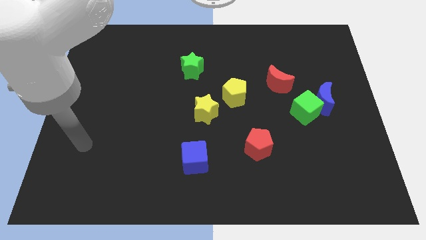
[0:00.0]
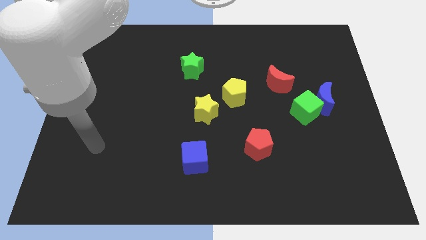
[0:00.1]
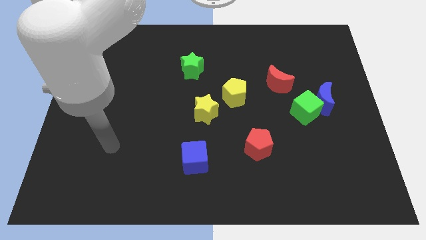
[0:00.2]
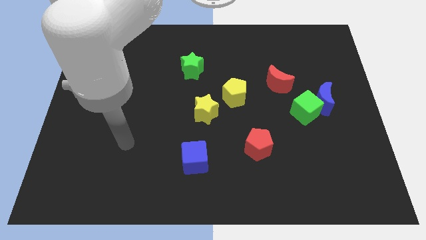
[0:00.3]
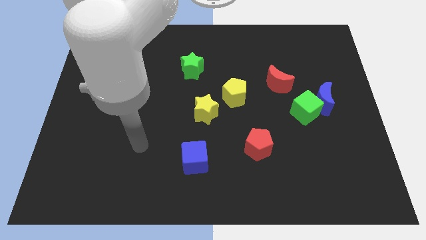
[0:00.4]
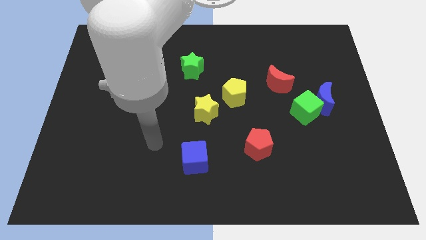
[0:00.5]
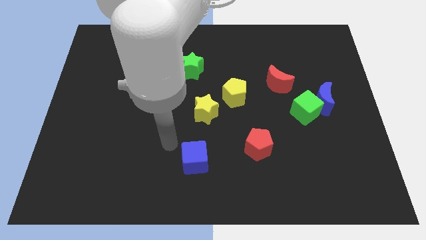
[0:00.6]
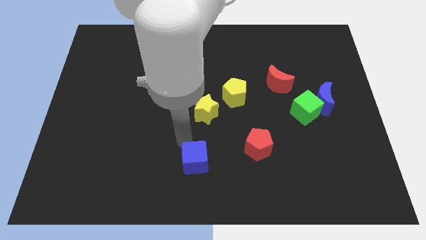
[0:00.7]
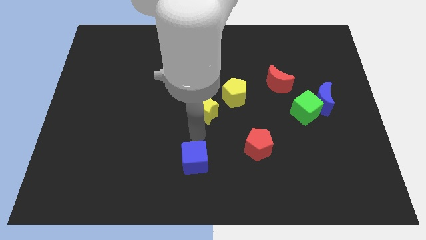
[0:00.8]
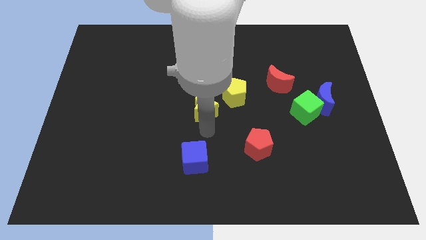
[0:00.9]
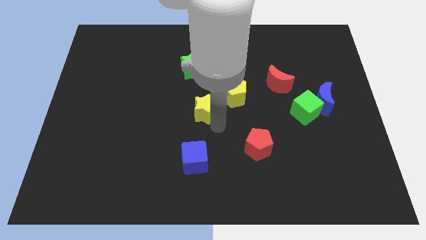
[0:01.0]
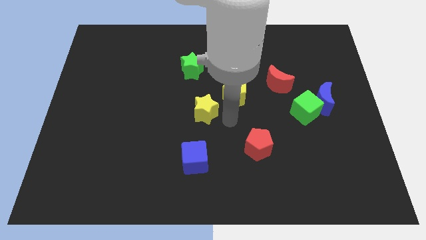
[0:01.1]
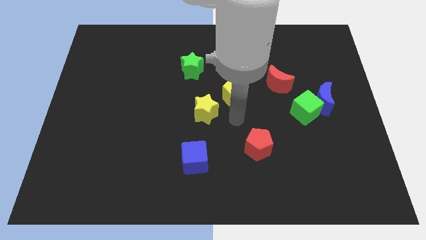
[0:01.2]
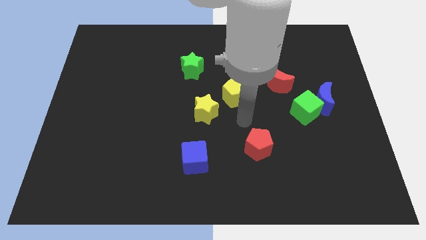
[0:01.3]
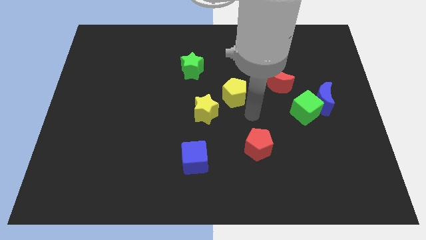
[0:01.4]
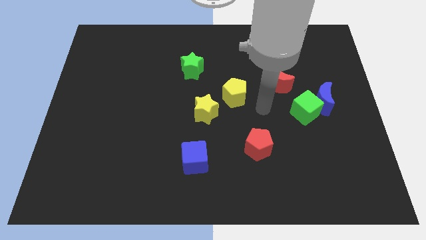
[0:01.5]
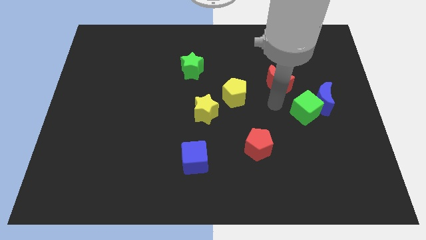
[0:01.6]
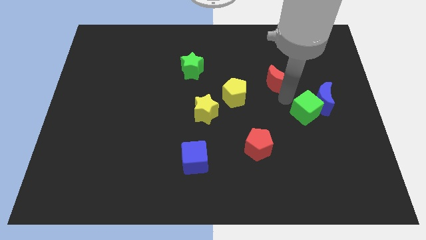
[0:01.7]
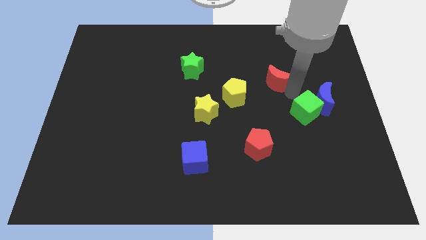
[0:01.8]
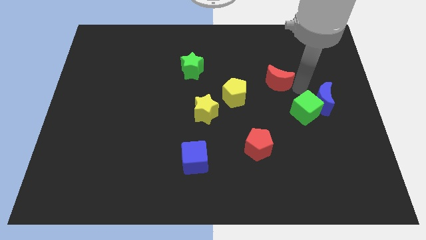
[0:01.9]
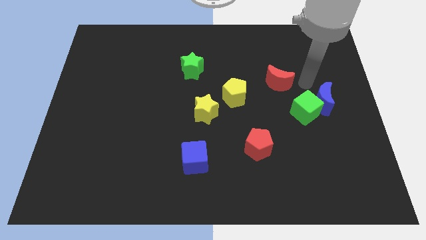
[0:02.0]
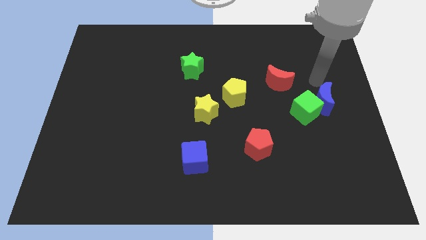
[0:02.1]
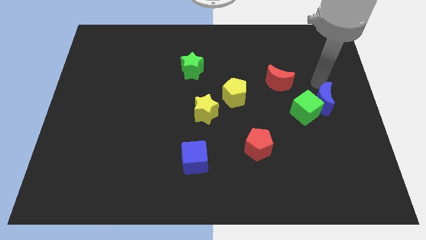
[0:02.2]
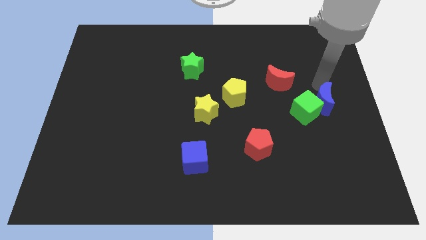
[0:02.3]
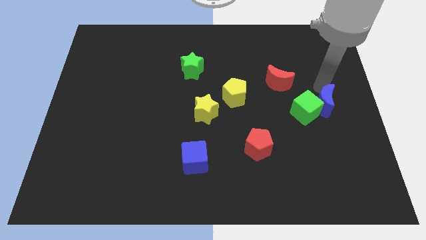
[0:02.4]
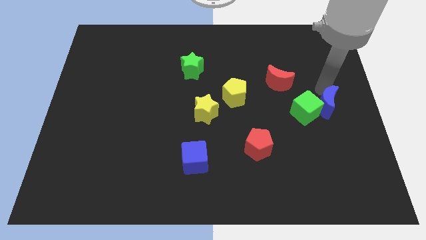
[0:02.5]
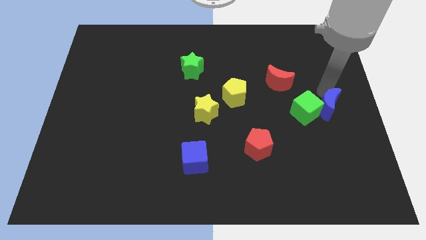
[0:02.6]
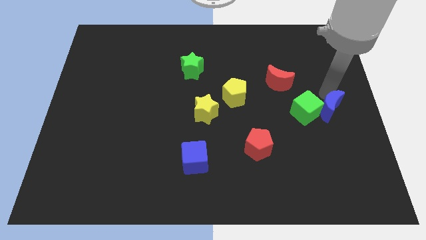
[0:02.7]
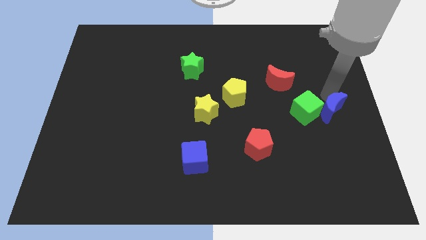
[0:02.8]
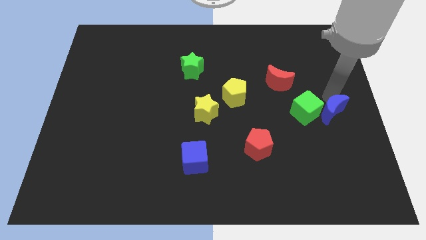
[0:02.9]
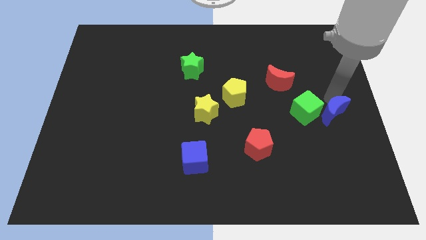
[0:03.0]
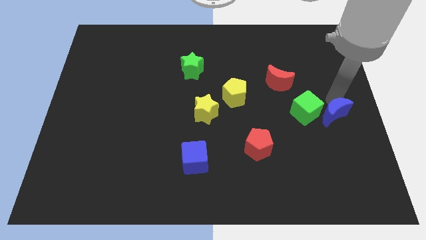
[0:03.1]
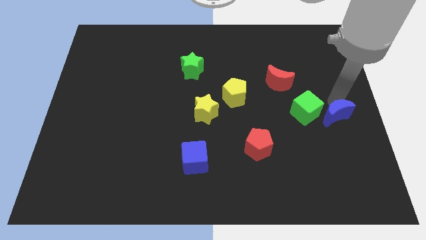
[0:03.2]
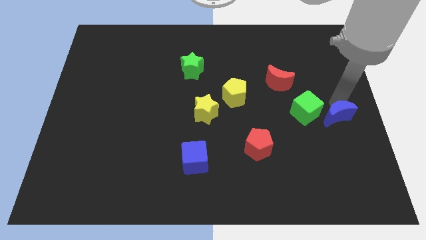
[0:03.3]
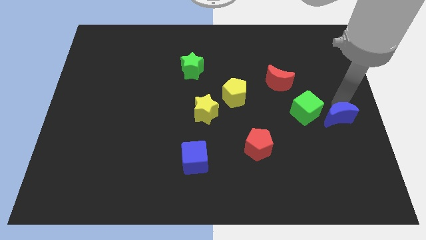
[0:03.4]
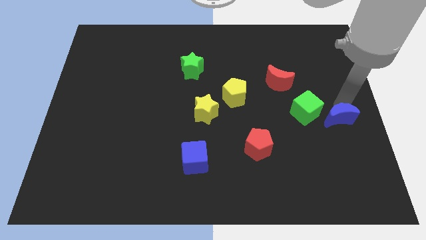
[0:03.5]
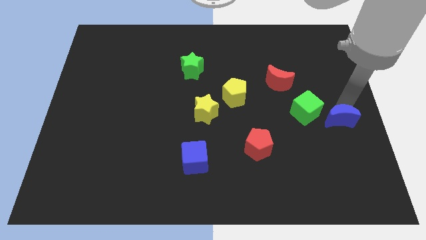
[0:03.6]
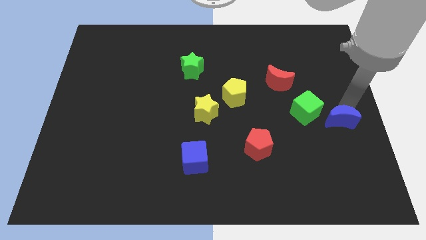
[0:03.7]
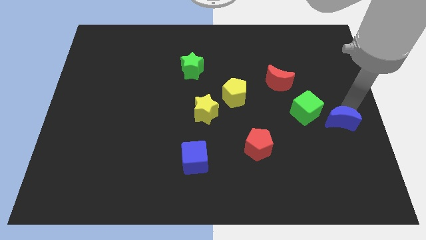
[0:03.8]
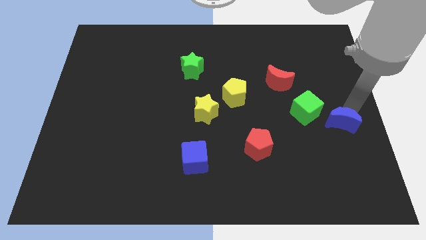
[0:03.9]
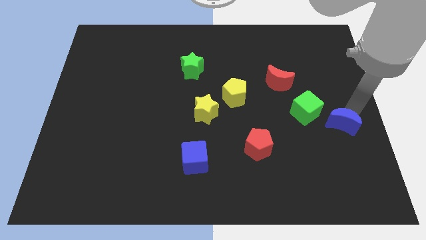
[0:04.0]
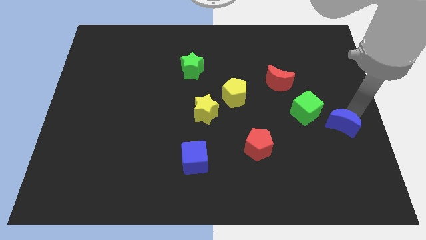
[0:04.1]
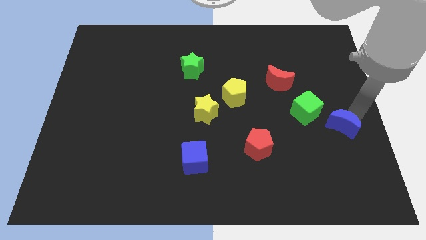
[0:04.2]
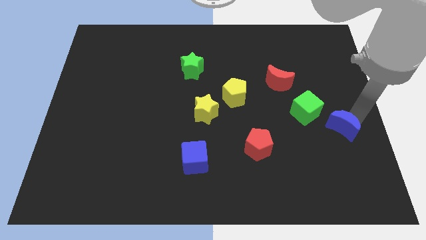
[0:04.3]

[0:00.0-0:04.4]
slightly push the blue moon down

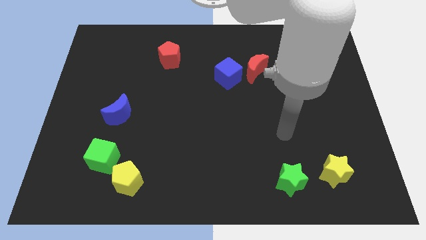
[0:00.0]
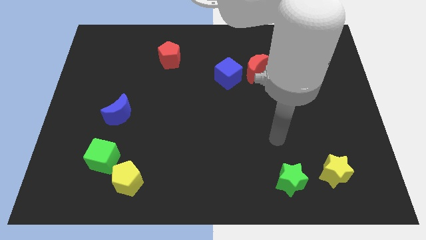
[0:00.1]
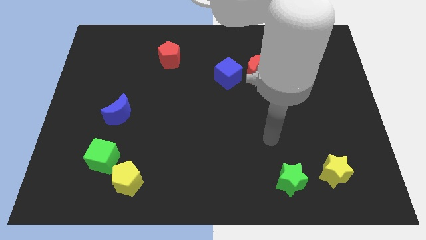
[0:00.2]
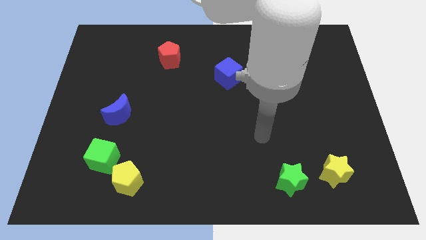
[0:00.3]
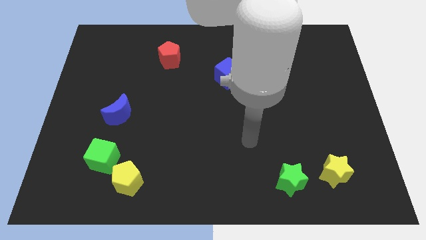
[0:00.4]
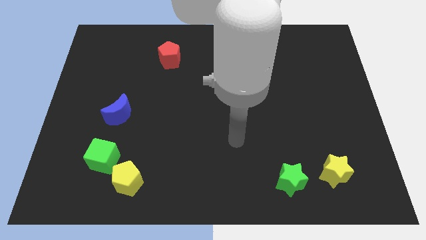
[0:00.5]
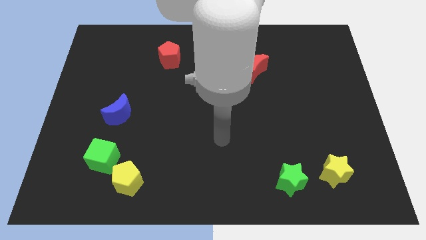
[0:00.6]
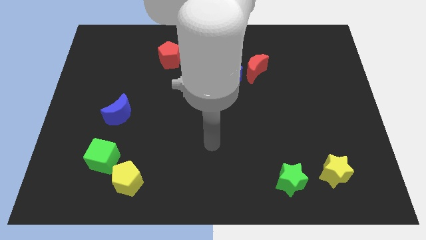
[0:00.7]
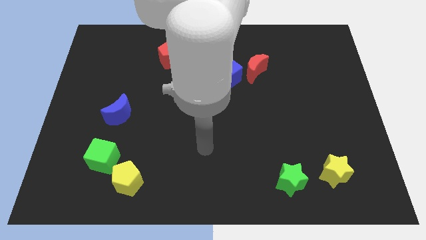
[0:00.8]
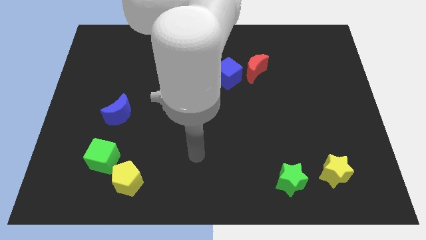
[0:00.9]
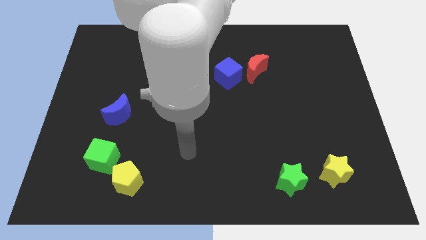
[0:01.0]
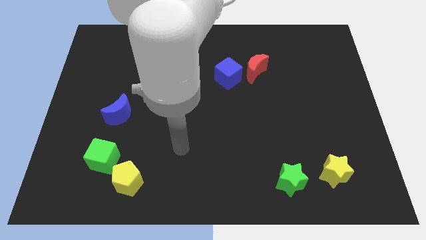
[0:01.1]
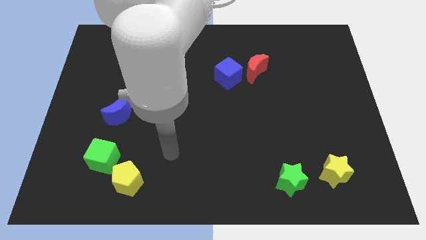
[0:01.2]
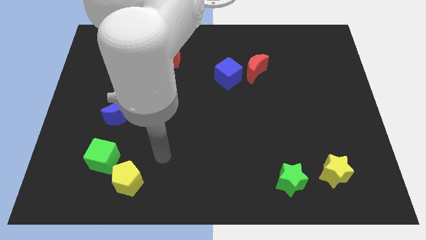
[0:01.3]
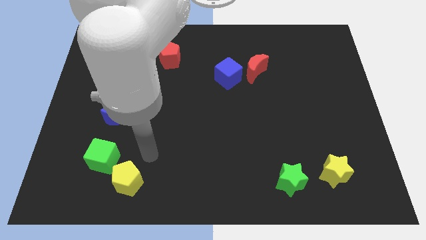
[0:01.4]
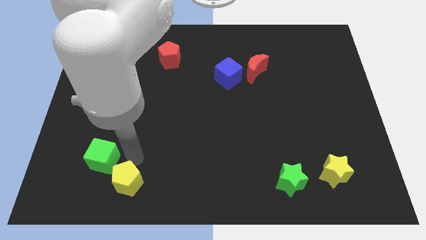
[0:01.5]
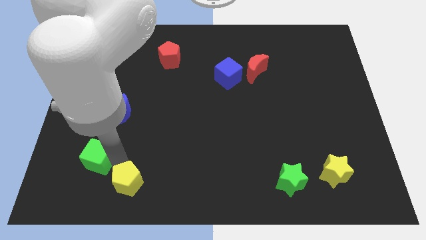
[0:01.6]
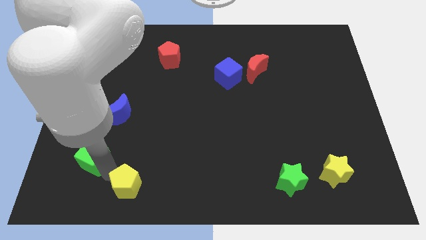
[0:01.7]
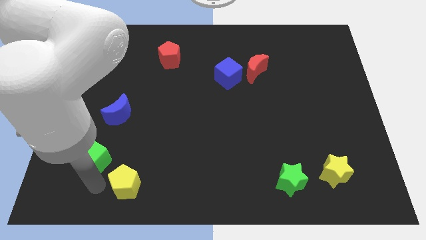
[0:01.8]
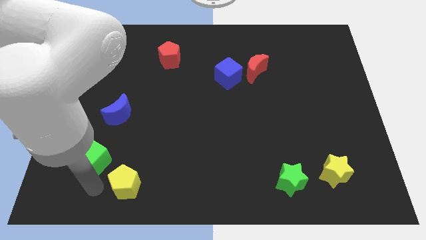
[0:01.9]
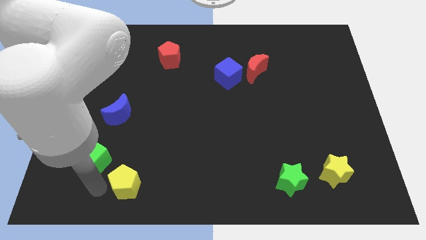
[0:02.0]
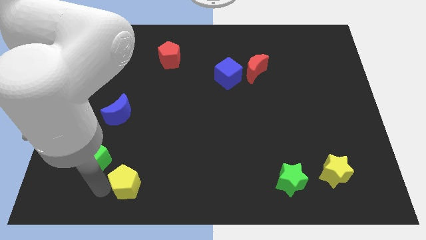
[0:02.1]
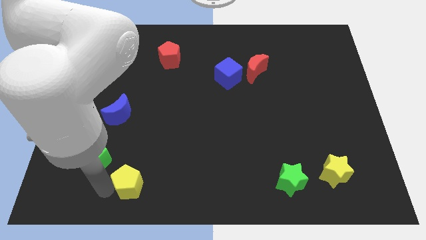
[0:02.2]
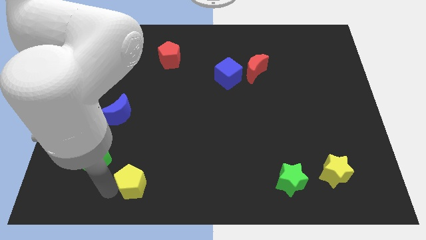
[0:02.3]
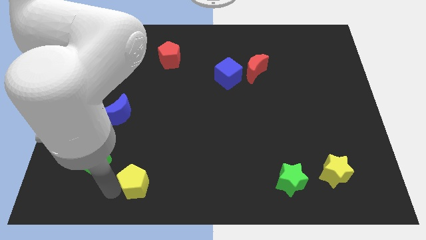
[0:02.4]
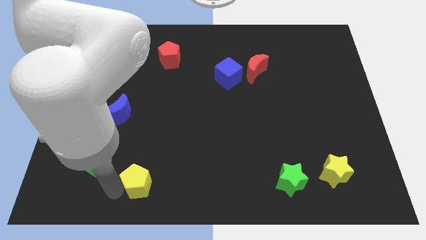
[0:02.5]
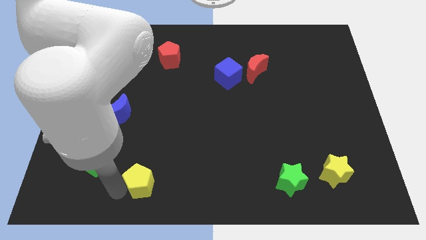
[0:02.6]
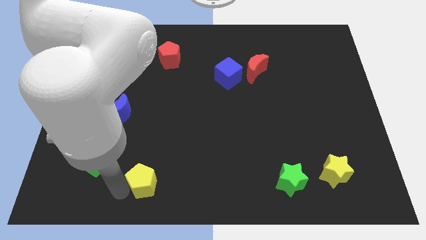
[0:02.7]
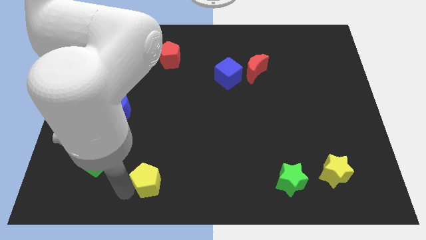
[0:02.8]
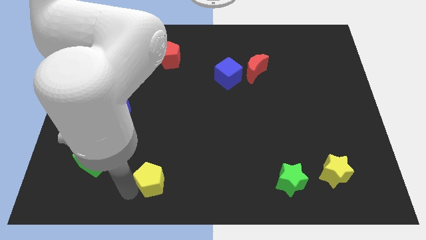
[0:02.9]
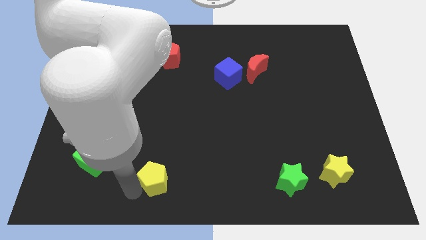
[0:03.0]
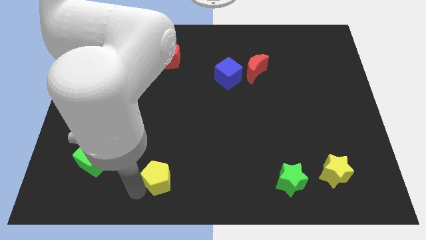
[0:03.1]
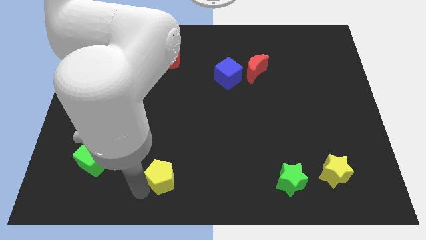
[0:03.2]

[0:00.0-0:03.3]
slightly slide the yellow pentagon right

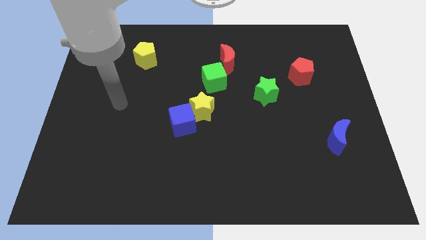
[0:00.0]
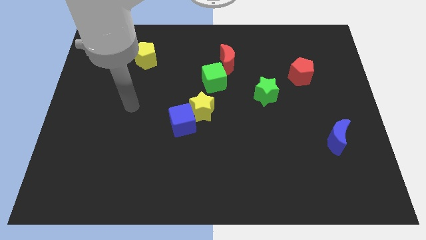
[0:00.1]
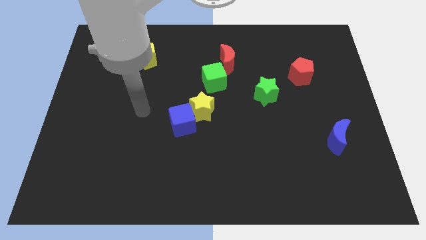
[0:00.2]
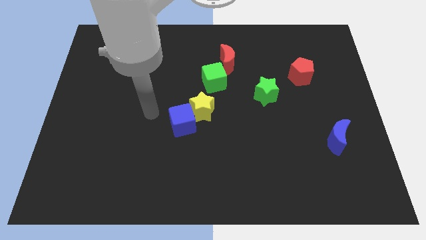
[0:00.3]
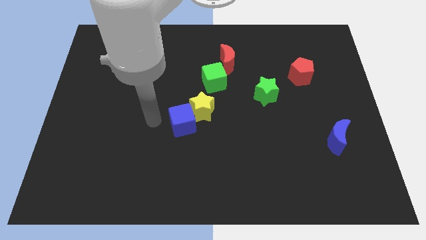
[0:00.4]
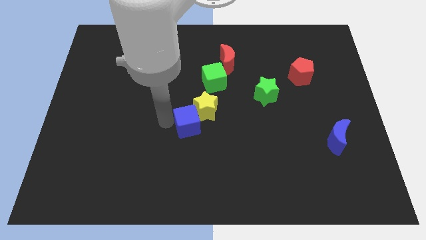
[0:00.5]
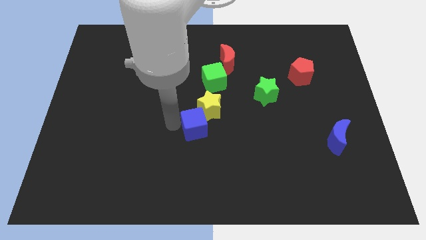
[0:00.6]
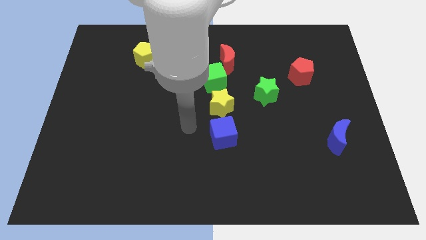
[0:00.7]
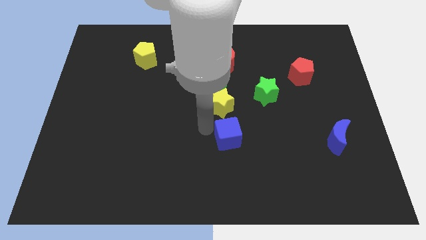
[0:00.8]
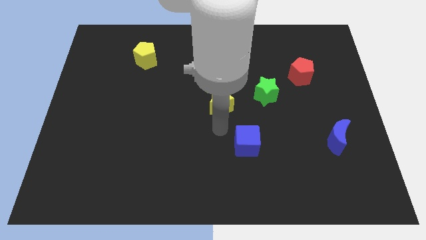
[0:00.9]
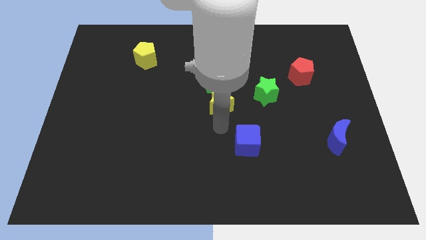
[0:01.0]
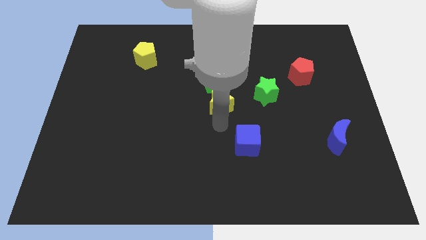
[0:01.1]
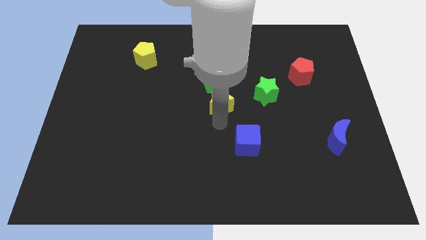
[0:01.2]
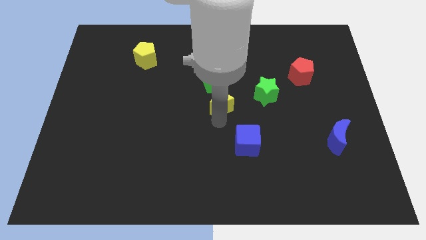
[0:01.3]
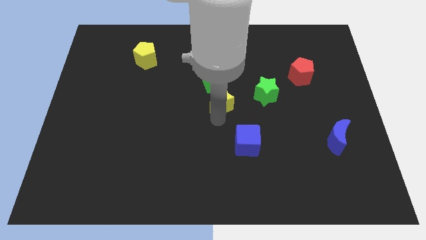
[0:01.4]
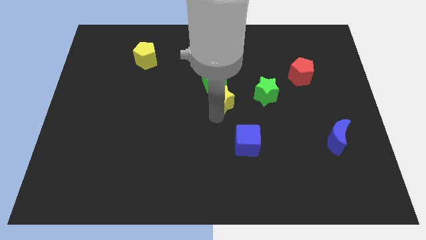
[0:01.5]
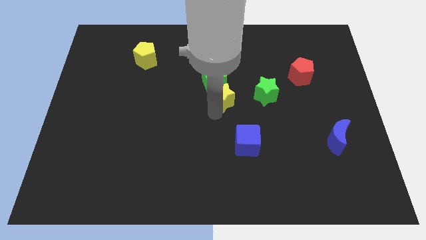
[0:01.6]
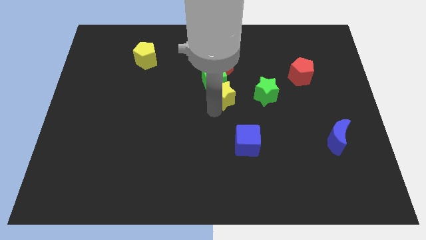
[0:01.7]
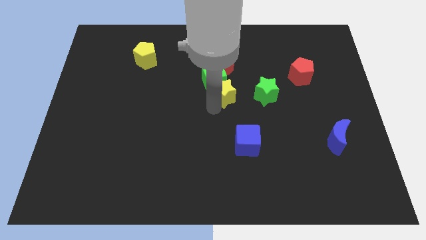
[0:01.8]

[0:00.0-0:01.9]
slide the yellow star somewhat up and right
